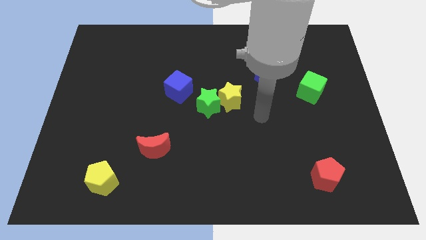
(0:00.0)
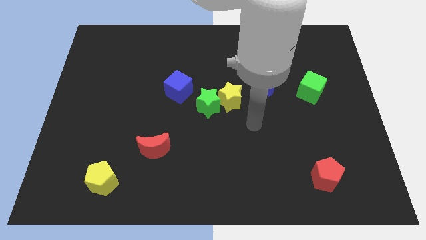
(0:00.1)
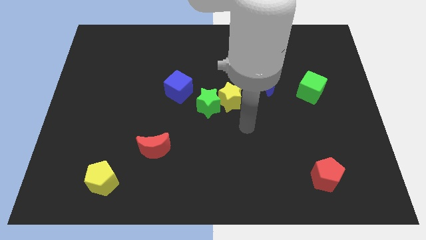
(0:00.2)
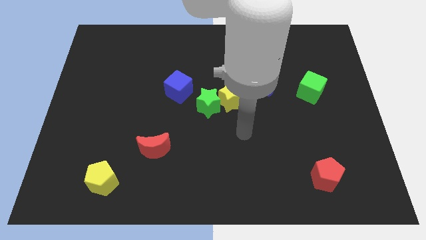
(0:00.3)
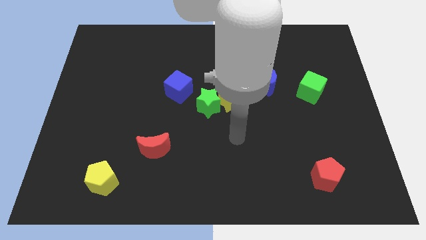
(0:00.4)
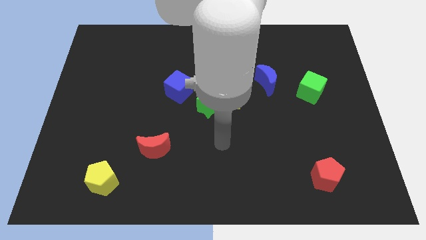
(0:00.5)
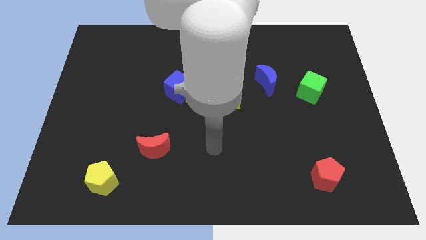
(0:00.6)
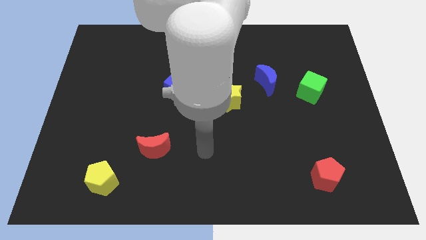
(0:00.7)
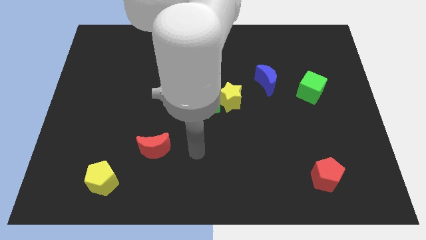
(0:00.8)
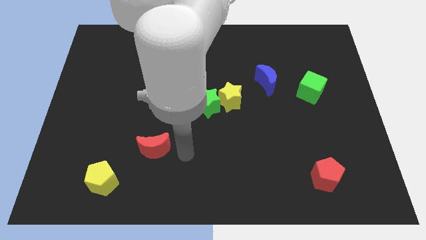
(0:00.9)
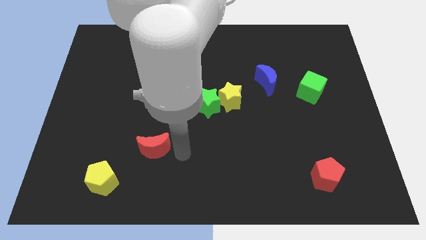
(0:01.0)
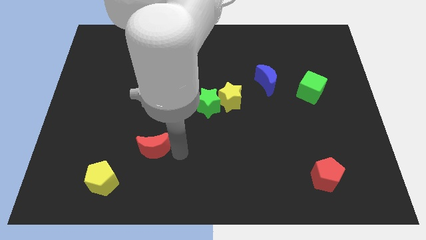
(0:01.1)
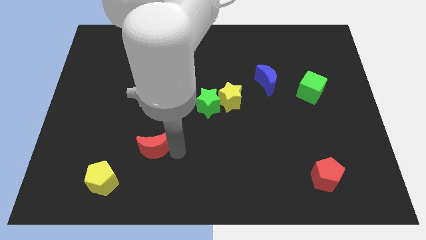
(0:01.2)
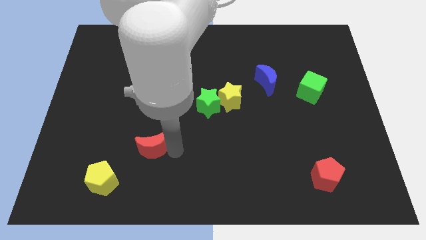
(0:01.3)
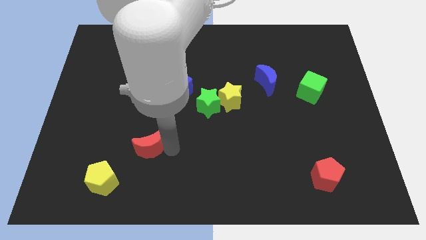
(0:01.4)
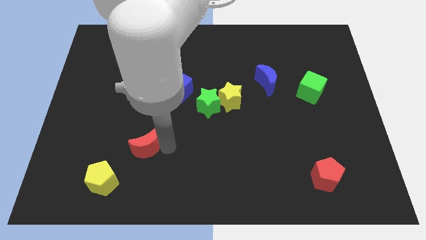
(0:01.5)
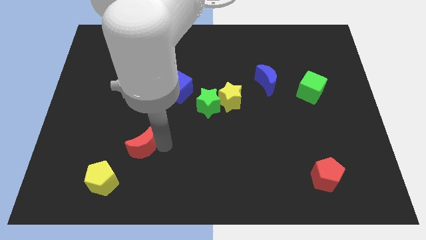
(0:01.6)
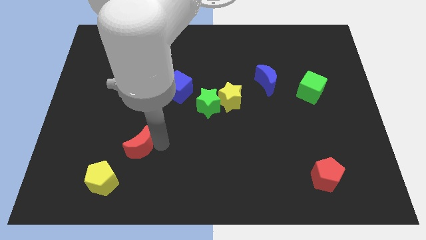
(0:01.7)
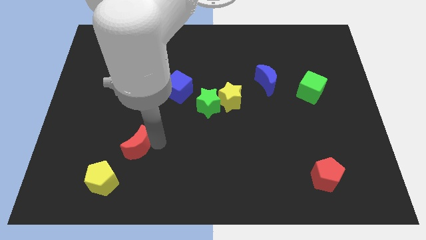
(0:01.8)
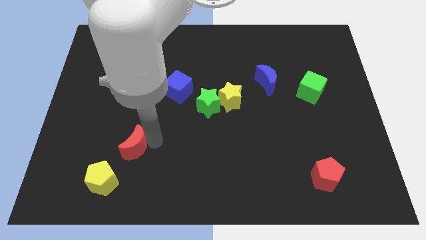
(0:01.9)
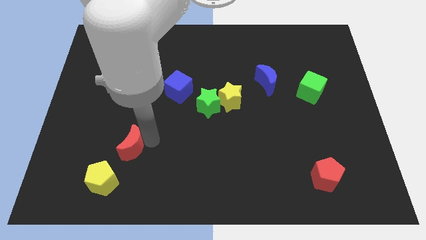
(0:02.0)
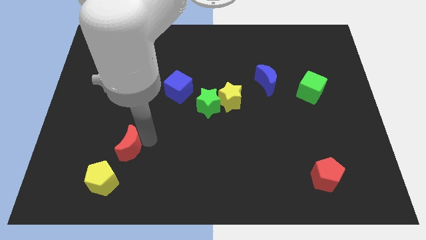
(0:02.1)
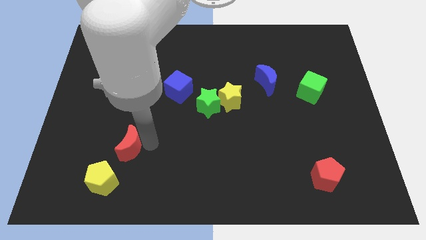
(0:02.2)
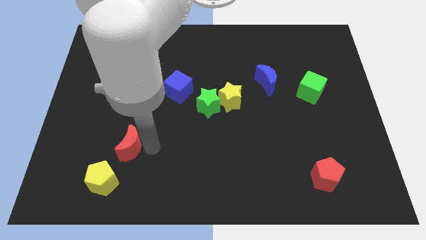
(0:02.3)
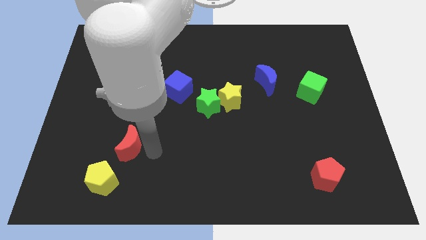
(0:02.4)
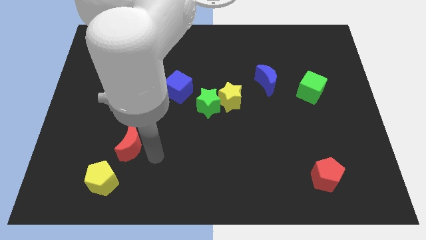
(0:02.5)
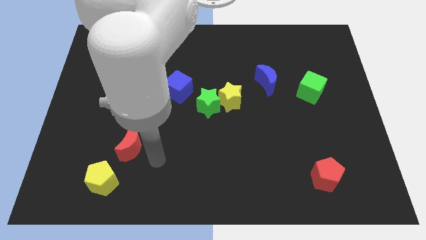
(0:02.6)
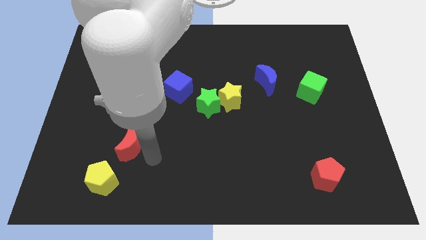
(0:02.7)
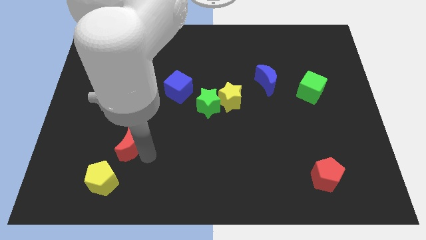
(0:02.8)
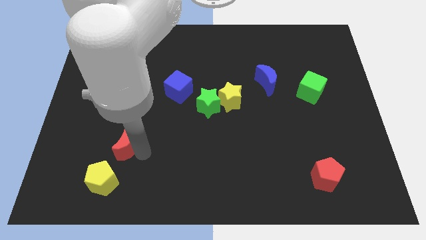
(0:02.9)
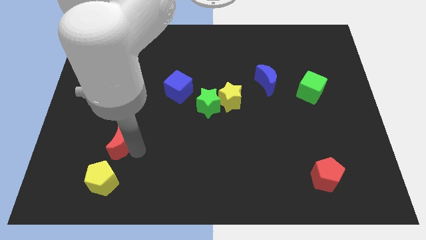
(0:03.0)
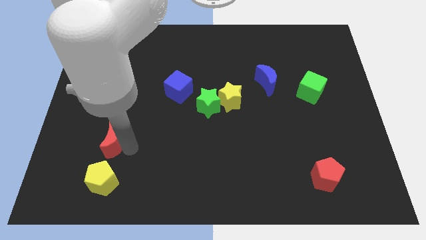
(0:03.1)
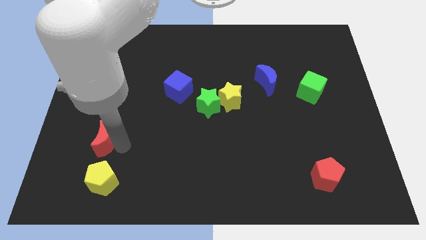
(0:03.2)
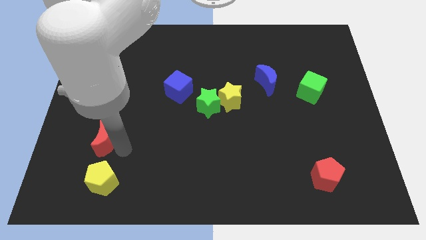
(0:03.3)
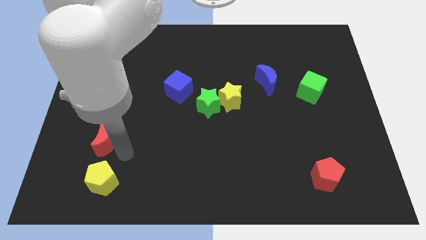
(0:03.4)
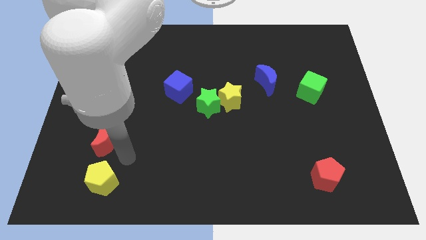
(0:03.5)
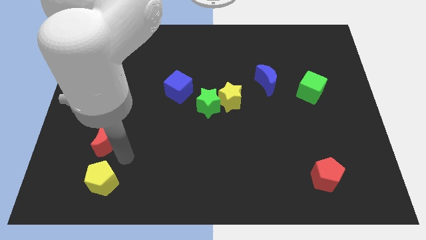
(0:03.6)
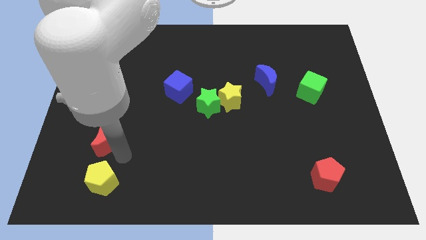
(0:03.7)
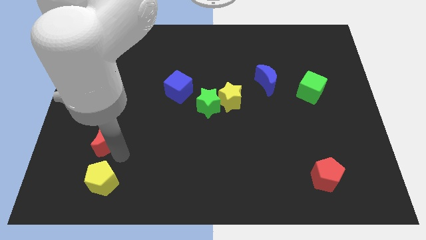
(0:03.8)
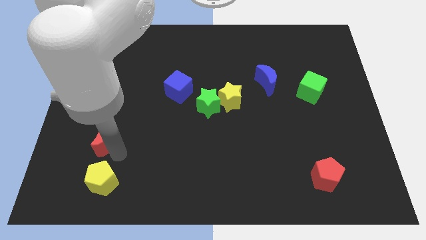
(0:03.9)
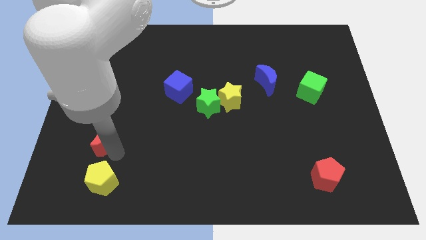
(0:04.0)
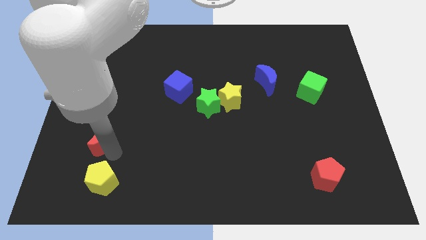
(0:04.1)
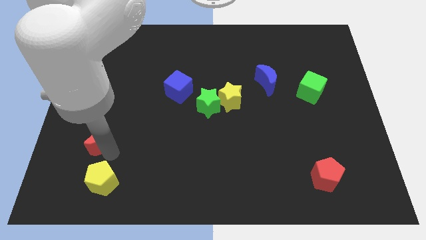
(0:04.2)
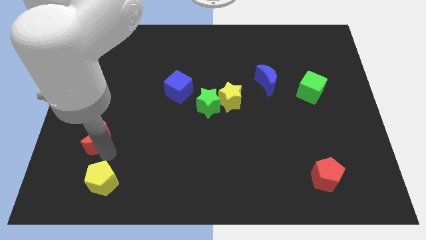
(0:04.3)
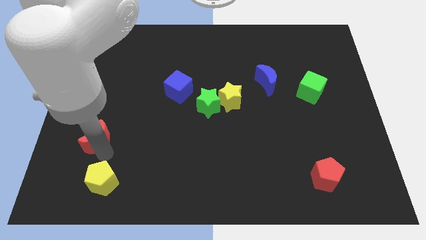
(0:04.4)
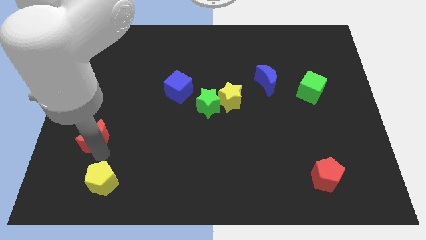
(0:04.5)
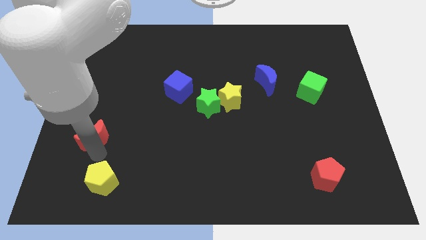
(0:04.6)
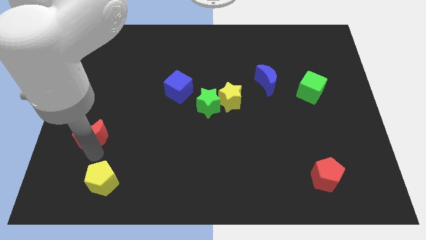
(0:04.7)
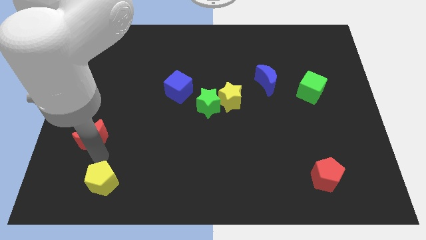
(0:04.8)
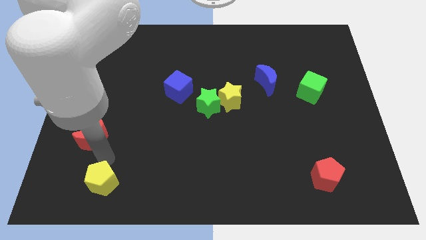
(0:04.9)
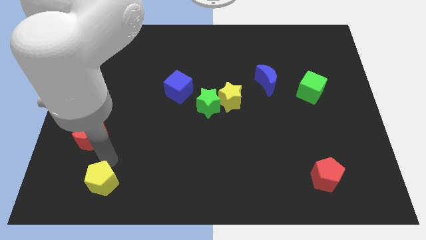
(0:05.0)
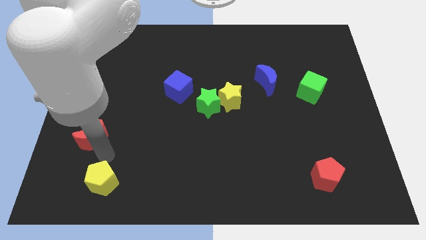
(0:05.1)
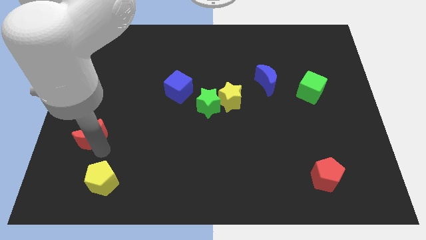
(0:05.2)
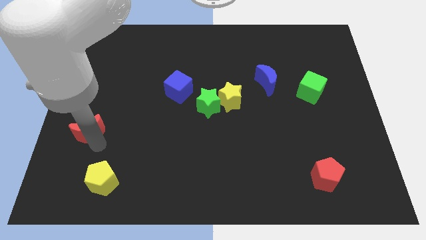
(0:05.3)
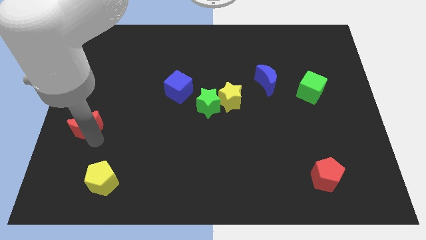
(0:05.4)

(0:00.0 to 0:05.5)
move the red moon to the left side of the board

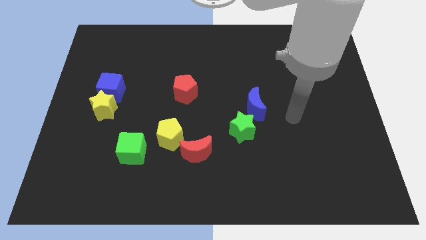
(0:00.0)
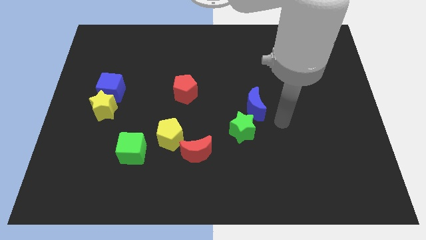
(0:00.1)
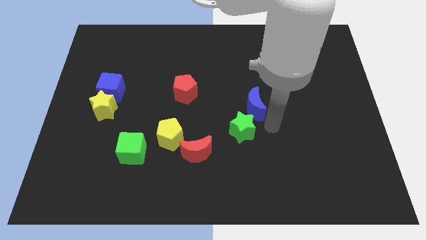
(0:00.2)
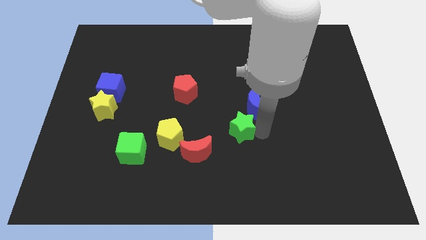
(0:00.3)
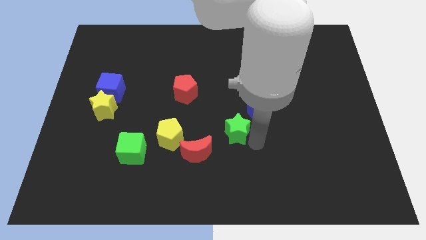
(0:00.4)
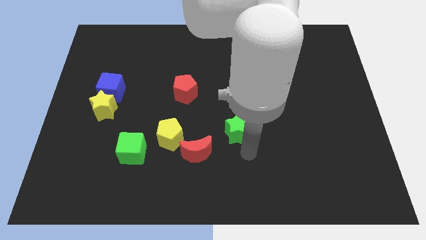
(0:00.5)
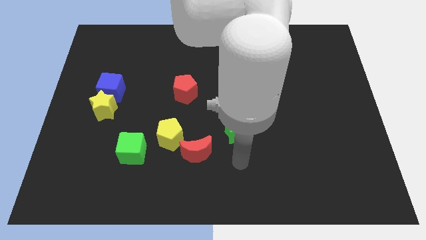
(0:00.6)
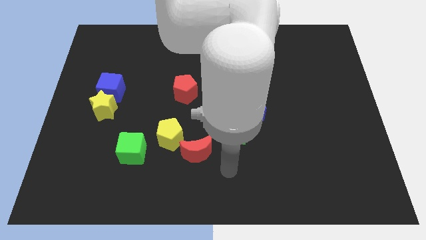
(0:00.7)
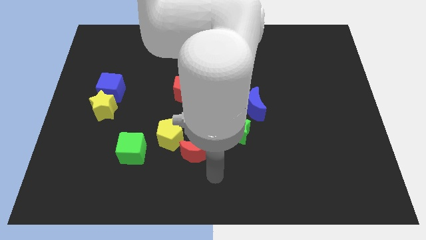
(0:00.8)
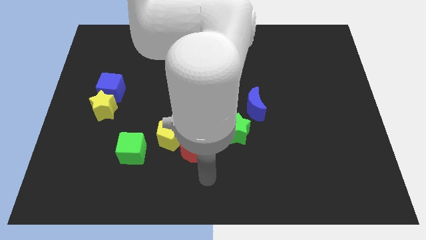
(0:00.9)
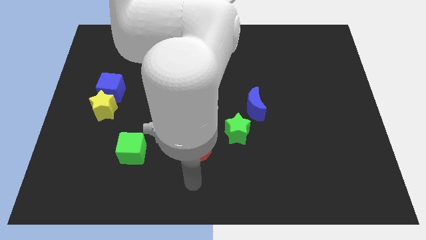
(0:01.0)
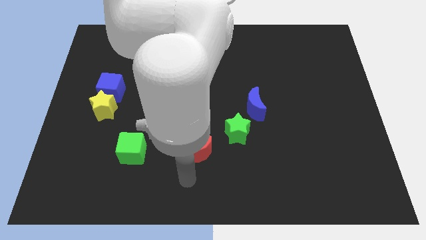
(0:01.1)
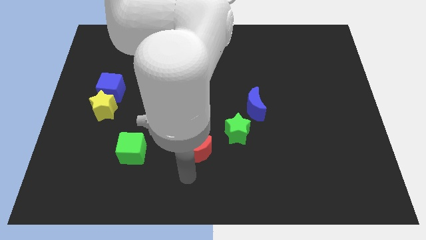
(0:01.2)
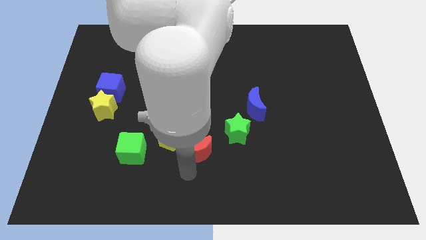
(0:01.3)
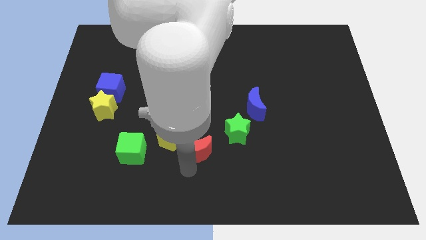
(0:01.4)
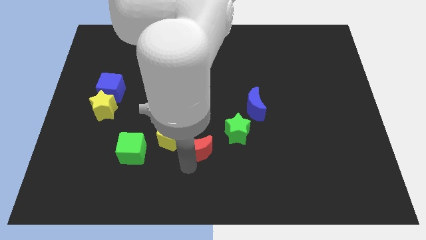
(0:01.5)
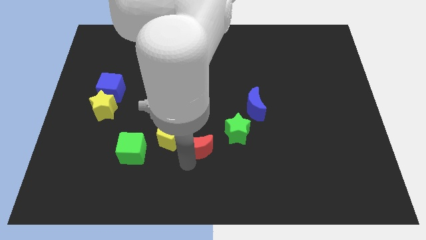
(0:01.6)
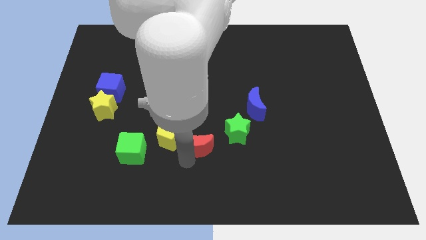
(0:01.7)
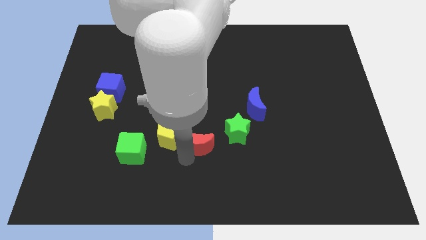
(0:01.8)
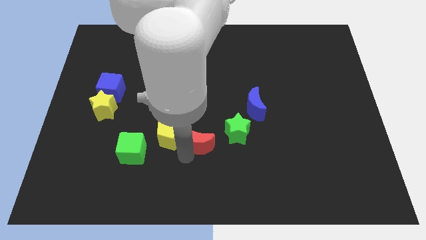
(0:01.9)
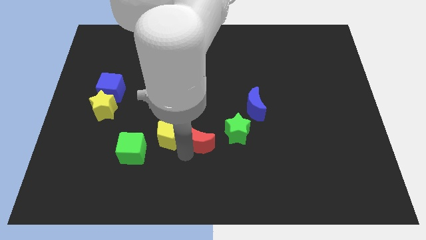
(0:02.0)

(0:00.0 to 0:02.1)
slide the red moon to the middle of the board

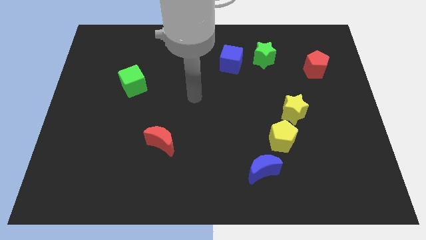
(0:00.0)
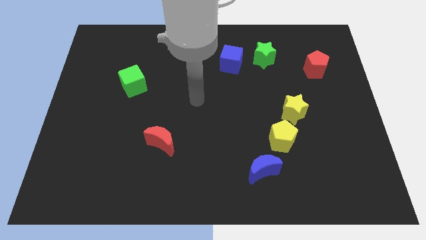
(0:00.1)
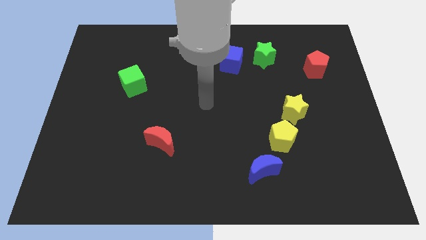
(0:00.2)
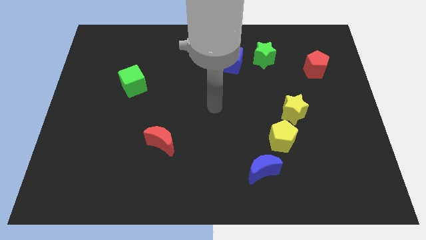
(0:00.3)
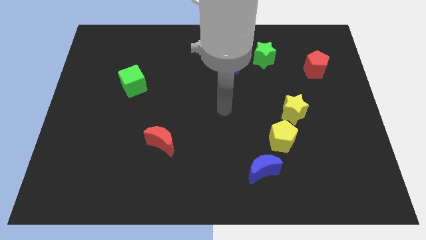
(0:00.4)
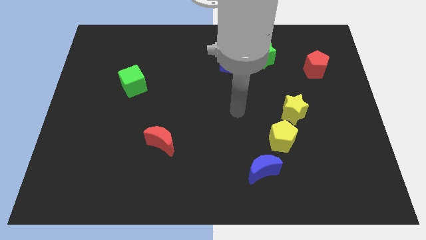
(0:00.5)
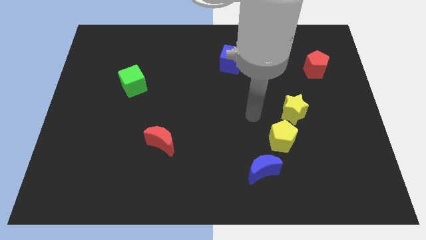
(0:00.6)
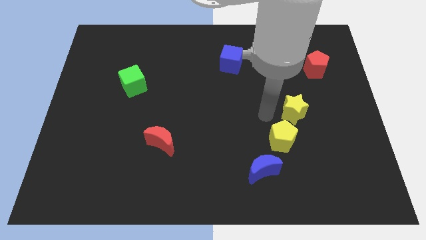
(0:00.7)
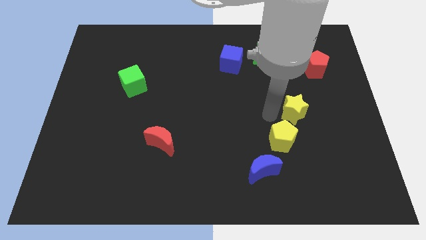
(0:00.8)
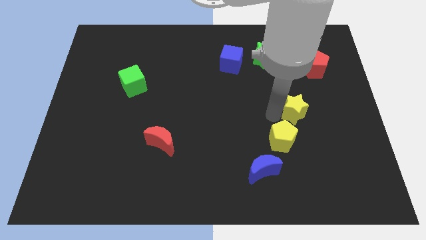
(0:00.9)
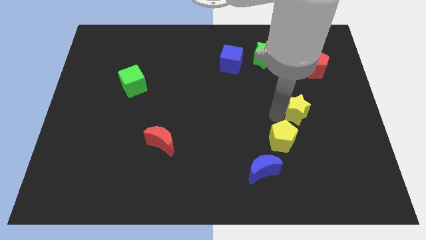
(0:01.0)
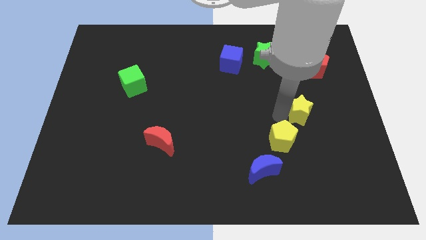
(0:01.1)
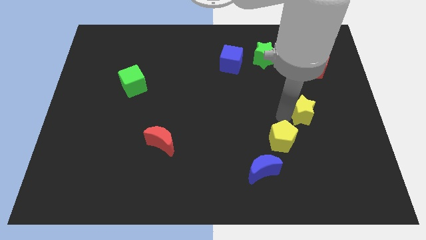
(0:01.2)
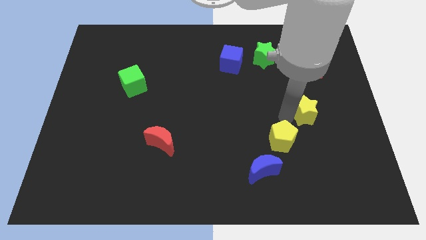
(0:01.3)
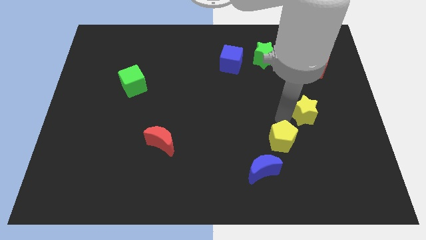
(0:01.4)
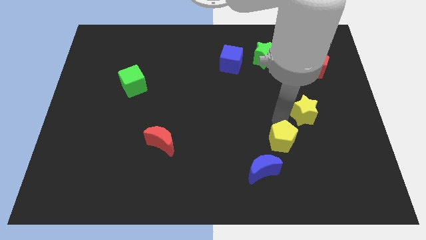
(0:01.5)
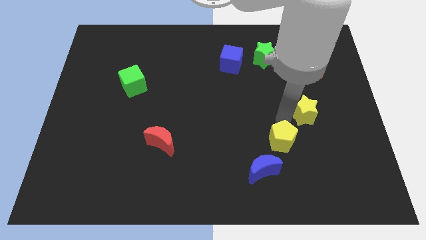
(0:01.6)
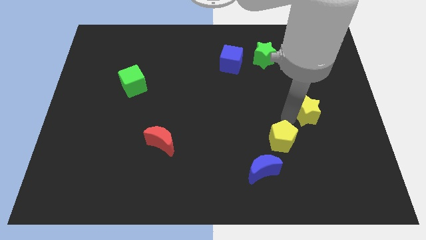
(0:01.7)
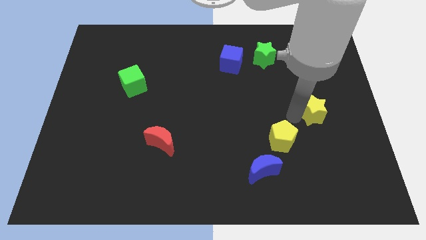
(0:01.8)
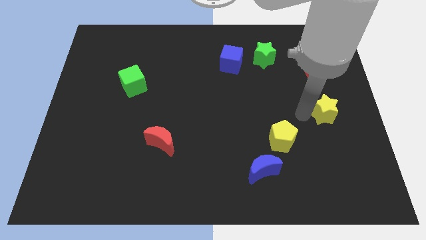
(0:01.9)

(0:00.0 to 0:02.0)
put the yellow star to the right side
